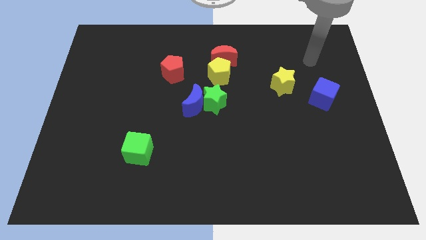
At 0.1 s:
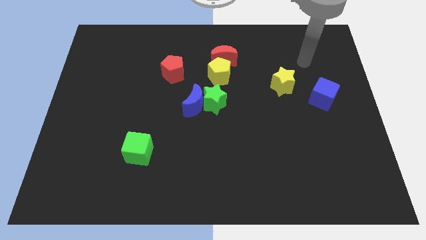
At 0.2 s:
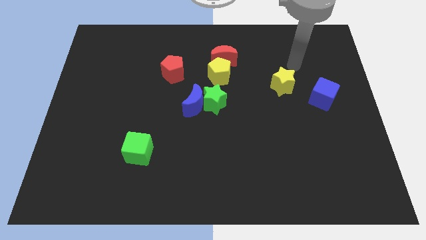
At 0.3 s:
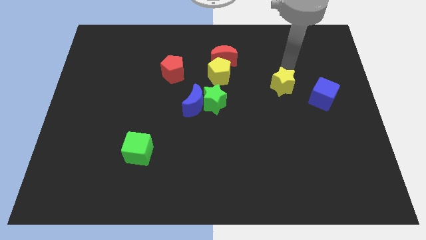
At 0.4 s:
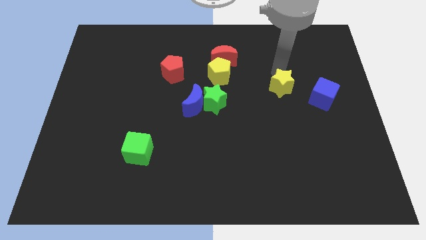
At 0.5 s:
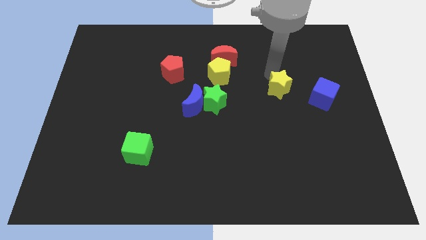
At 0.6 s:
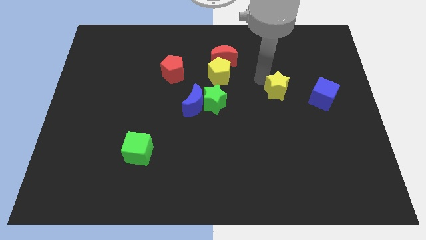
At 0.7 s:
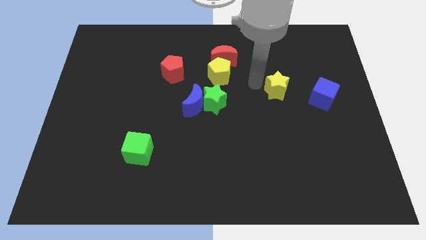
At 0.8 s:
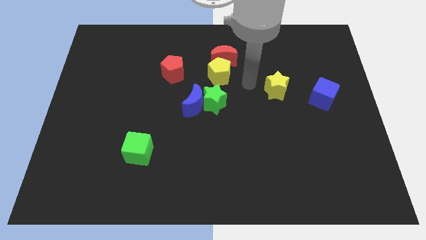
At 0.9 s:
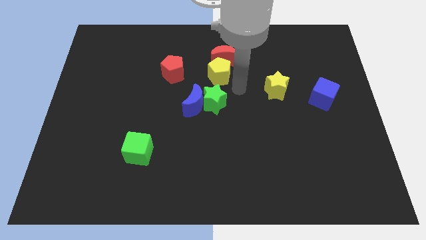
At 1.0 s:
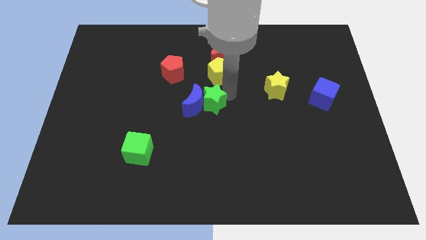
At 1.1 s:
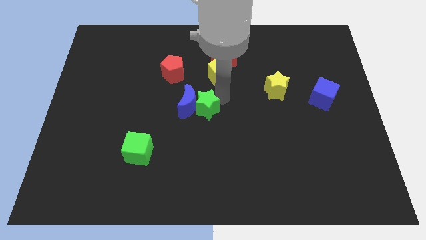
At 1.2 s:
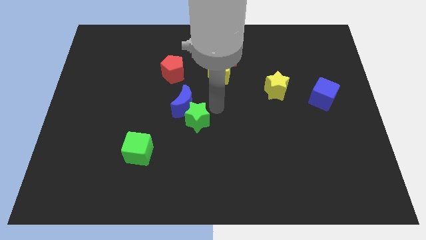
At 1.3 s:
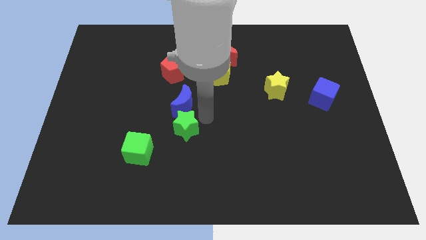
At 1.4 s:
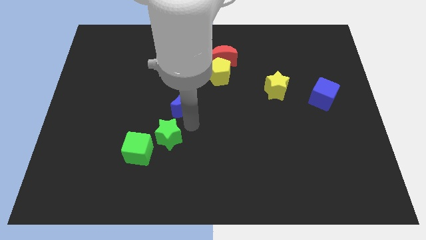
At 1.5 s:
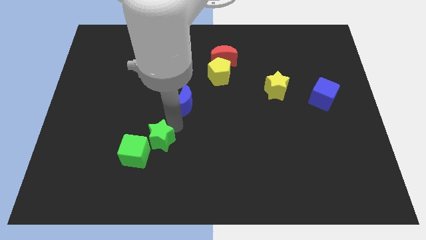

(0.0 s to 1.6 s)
move the blue moon away from the green star

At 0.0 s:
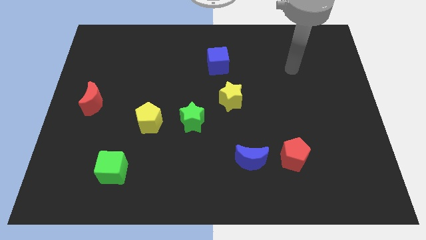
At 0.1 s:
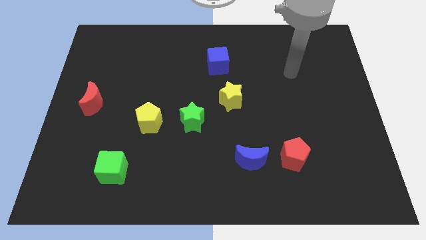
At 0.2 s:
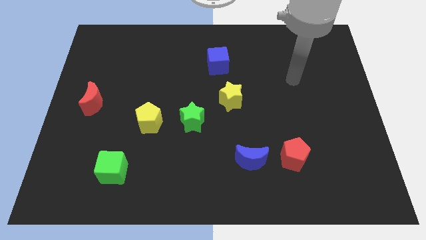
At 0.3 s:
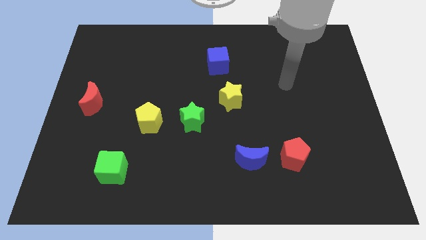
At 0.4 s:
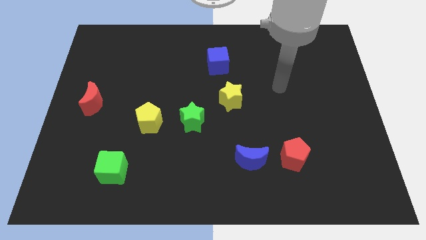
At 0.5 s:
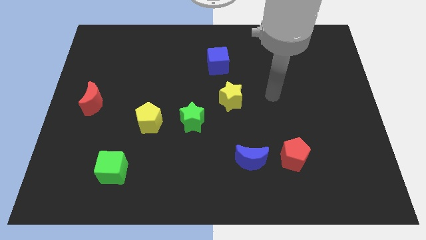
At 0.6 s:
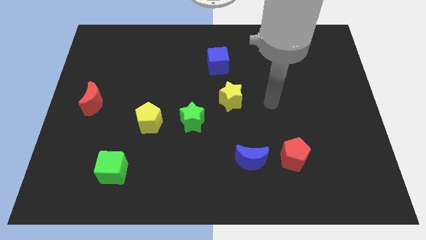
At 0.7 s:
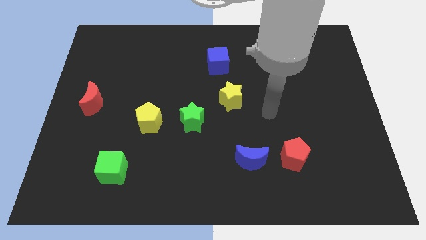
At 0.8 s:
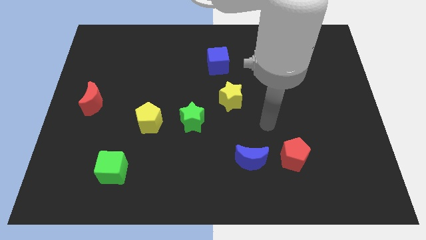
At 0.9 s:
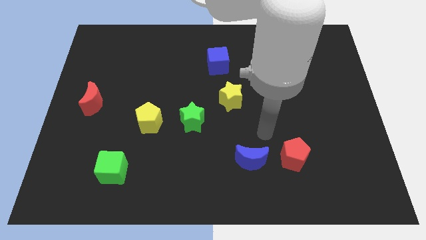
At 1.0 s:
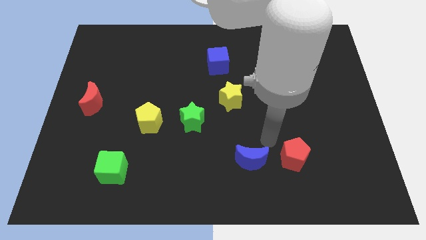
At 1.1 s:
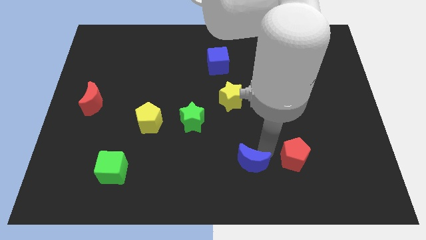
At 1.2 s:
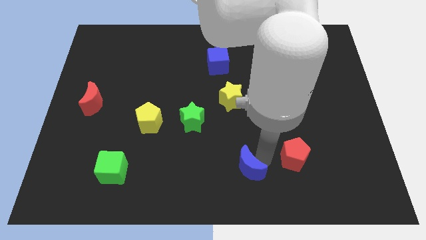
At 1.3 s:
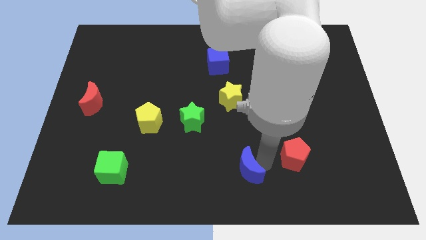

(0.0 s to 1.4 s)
pull the red pentagon apart from the blue moon

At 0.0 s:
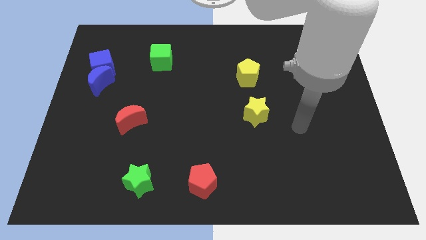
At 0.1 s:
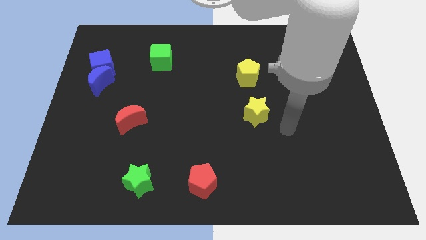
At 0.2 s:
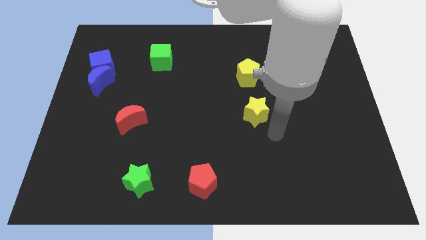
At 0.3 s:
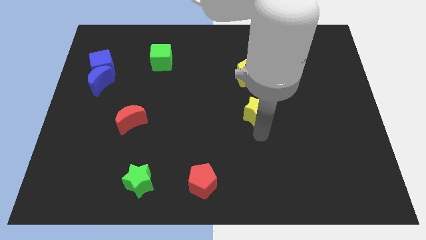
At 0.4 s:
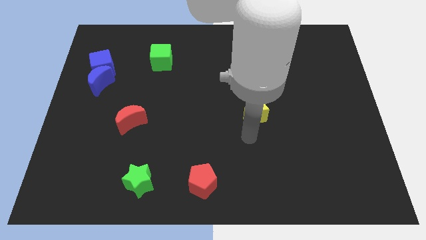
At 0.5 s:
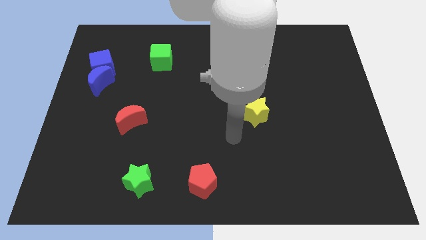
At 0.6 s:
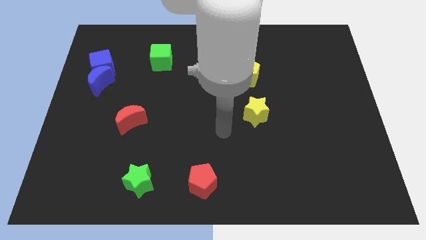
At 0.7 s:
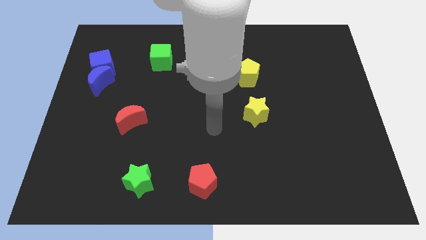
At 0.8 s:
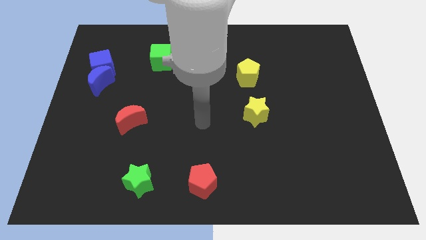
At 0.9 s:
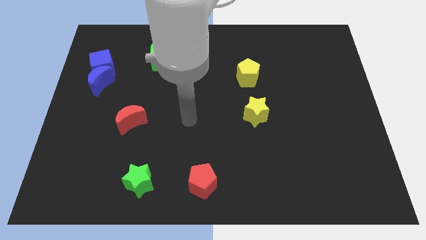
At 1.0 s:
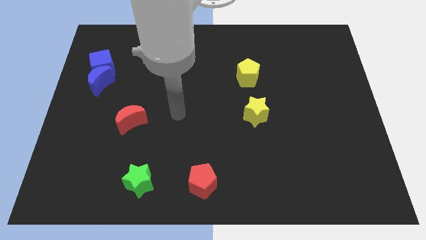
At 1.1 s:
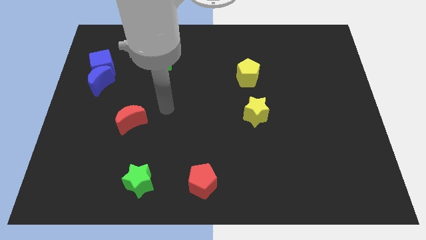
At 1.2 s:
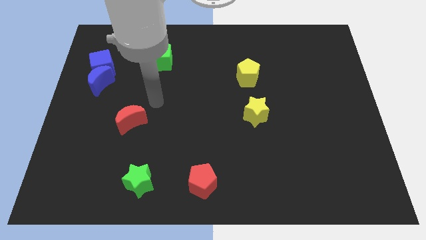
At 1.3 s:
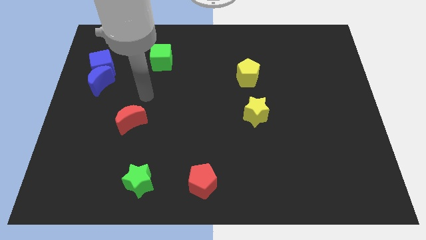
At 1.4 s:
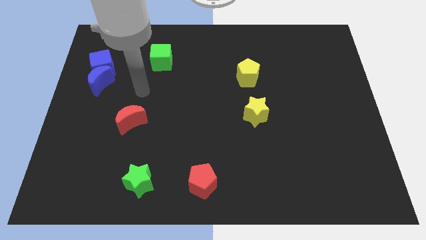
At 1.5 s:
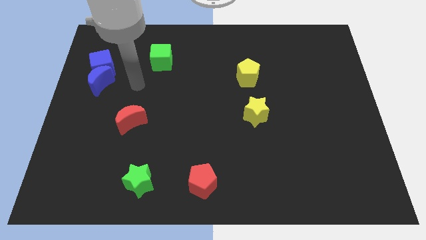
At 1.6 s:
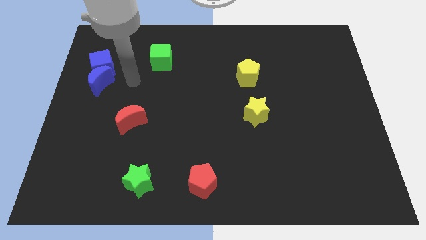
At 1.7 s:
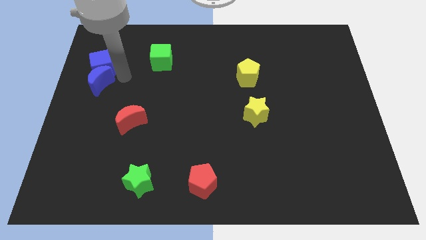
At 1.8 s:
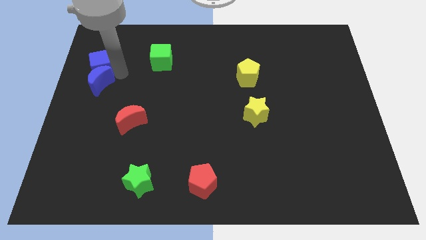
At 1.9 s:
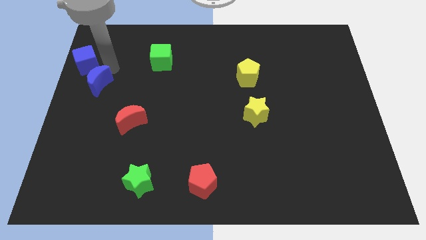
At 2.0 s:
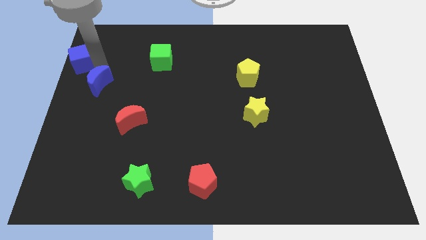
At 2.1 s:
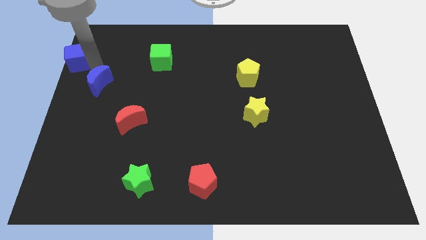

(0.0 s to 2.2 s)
pull the blue moon apart from the blue cube

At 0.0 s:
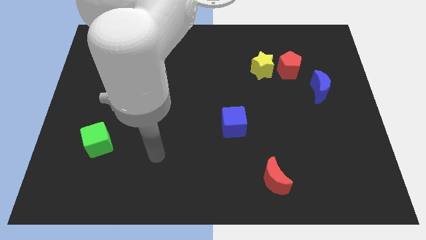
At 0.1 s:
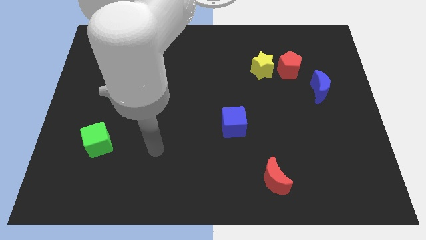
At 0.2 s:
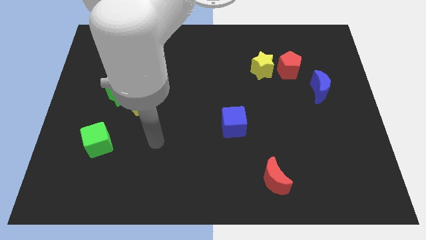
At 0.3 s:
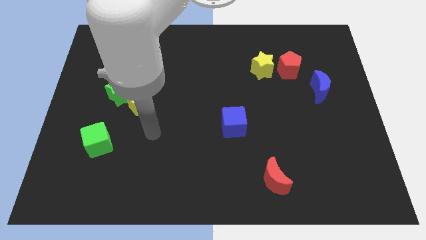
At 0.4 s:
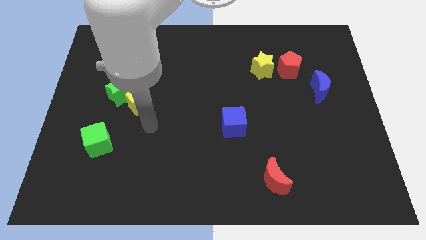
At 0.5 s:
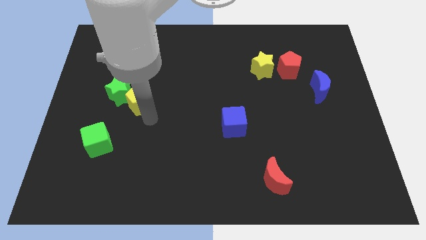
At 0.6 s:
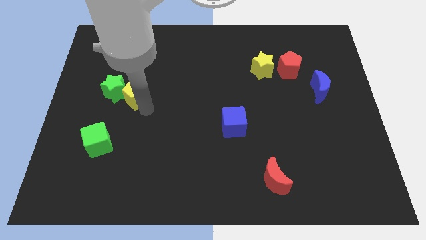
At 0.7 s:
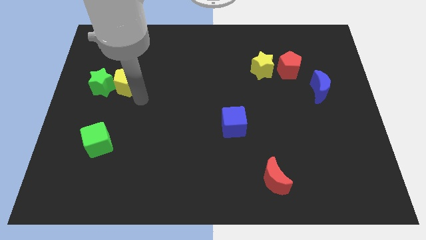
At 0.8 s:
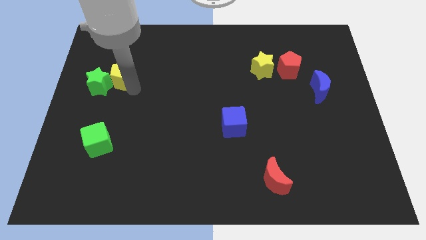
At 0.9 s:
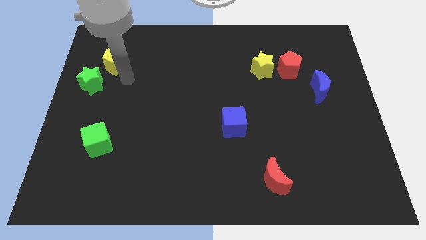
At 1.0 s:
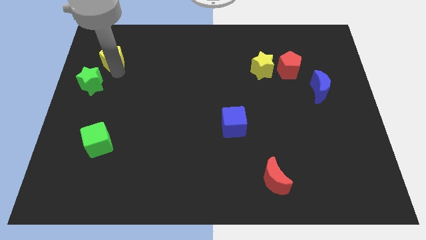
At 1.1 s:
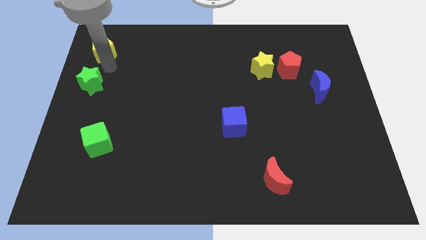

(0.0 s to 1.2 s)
pull the green star apart from the yellow pentagon

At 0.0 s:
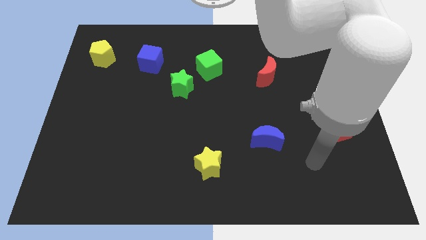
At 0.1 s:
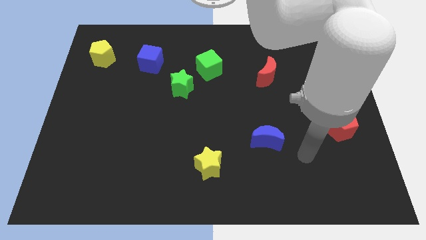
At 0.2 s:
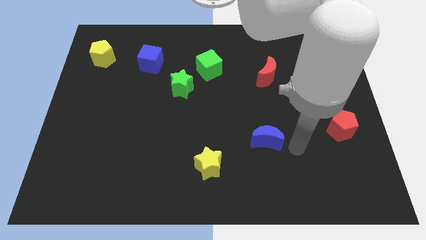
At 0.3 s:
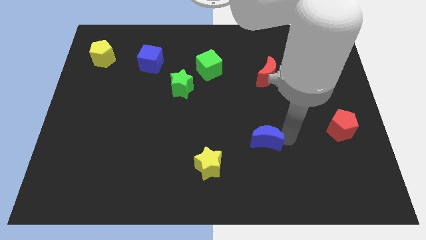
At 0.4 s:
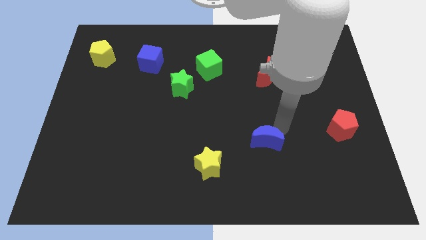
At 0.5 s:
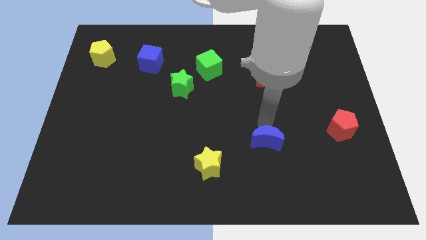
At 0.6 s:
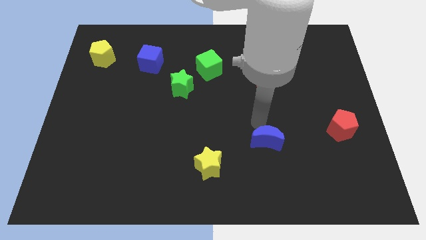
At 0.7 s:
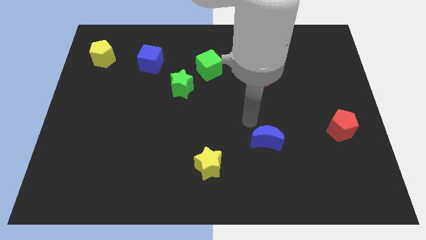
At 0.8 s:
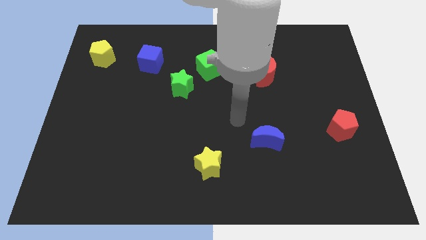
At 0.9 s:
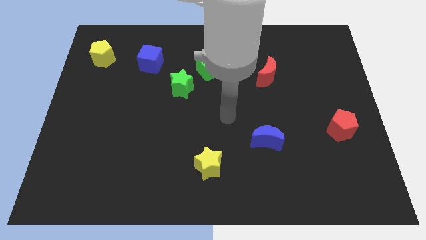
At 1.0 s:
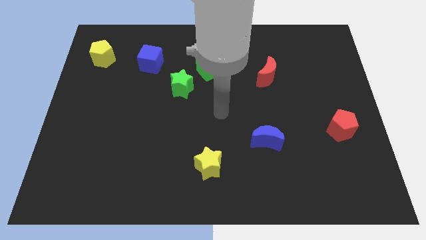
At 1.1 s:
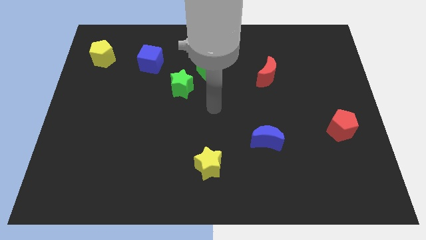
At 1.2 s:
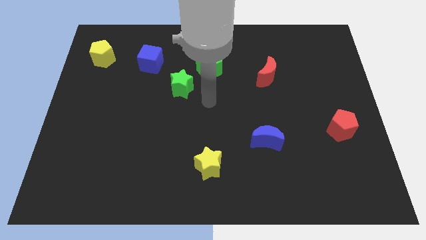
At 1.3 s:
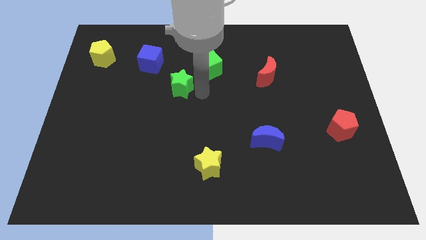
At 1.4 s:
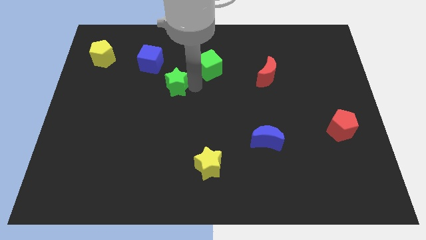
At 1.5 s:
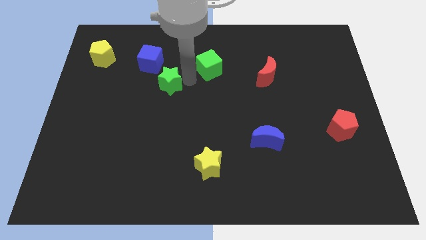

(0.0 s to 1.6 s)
pull the green cube apart from the green star

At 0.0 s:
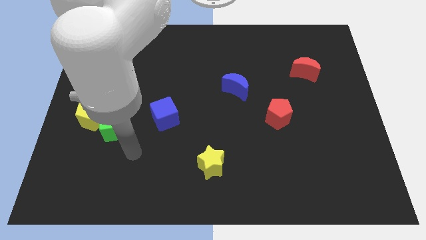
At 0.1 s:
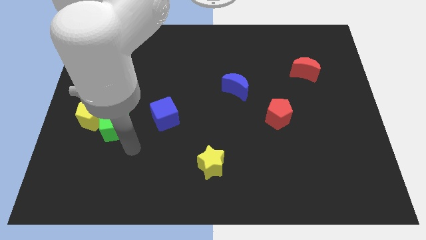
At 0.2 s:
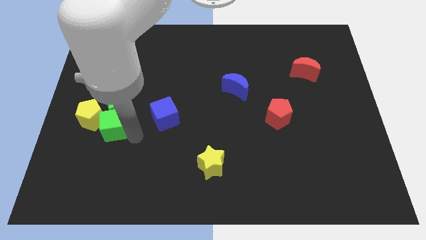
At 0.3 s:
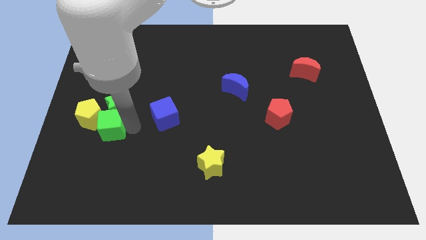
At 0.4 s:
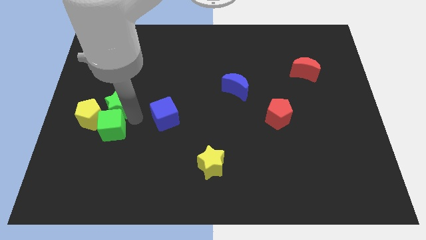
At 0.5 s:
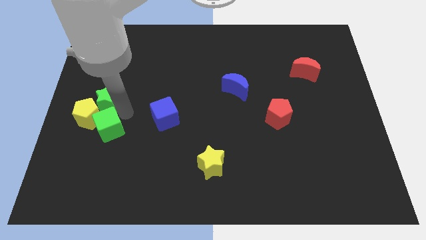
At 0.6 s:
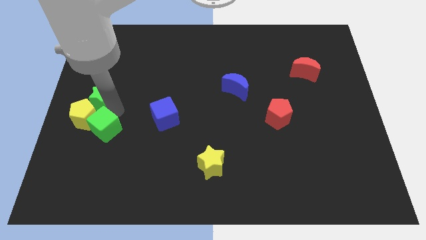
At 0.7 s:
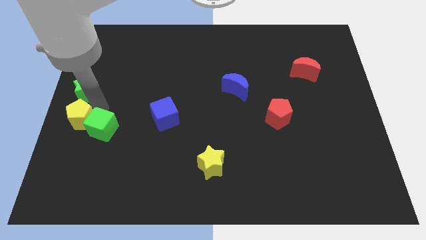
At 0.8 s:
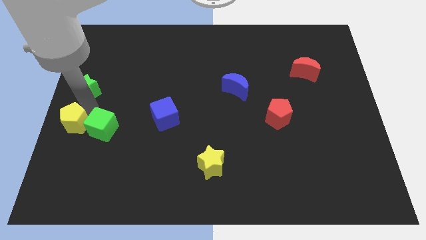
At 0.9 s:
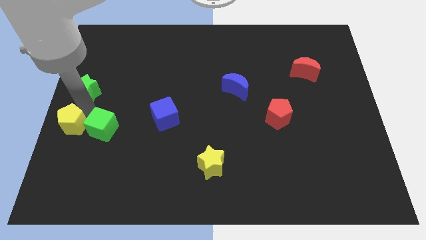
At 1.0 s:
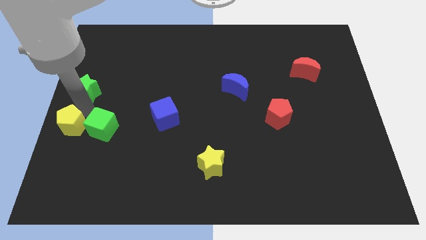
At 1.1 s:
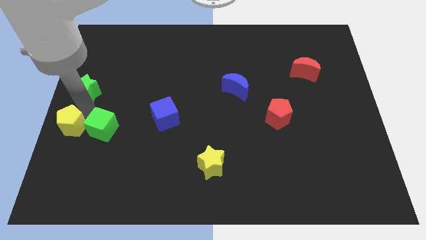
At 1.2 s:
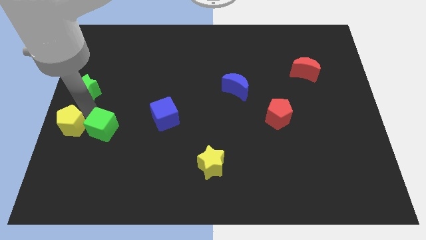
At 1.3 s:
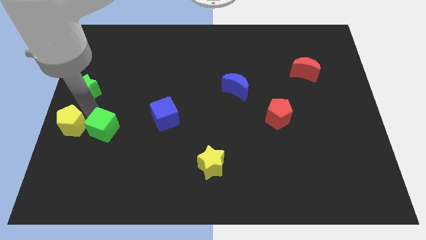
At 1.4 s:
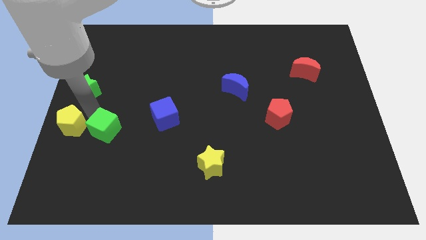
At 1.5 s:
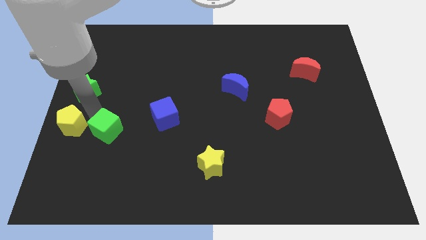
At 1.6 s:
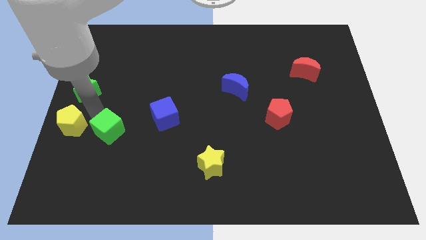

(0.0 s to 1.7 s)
move the green cube away from the green star and yellow pentagon
